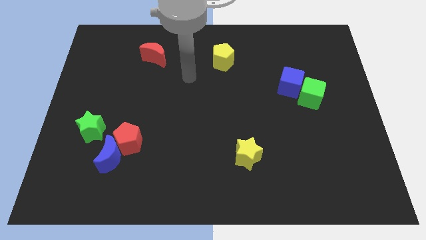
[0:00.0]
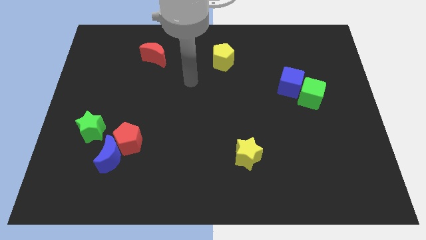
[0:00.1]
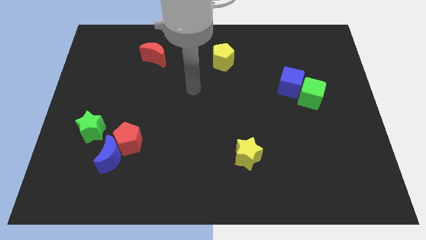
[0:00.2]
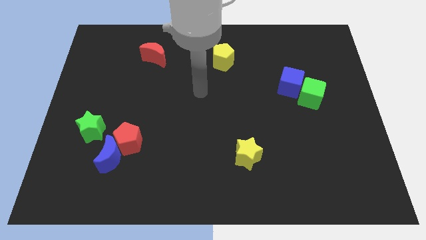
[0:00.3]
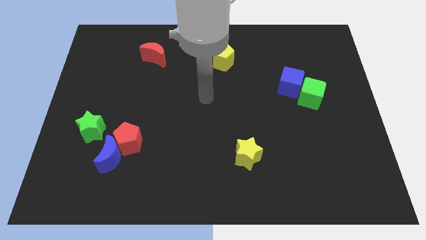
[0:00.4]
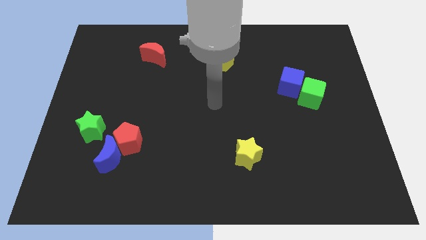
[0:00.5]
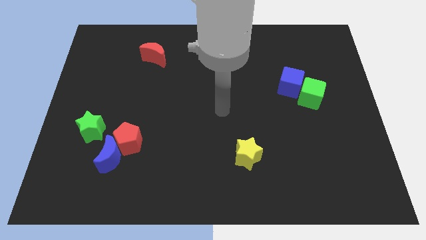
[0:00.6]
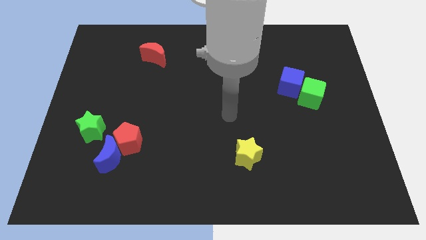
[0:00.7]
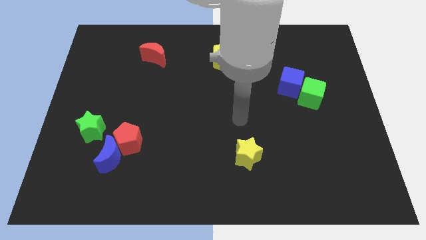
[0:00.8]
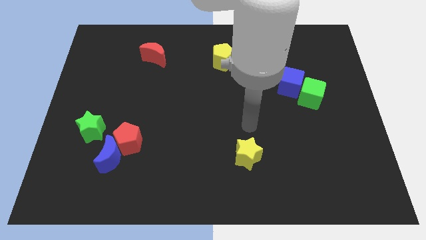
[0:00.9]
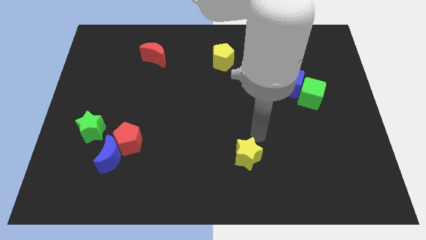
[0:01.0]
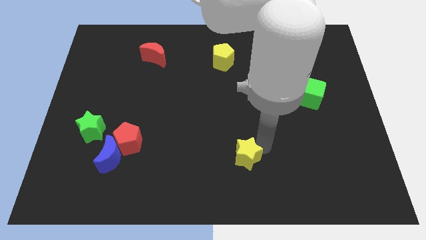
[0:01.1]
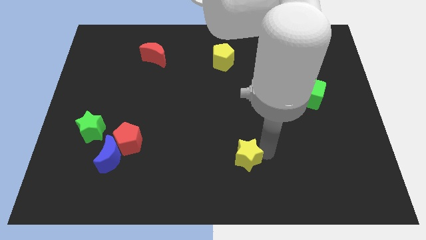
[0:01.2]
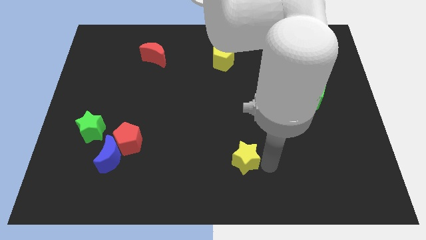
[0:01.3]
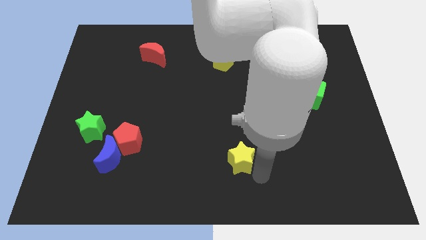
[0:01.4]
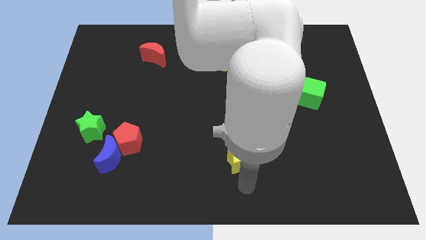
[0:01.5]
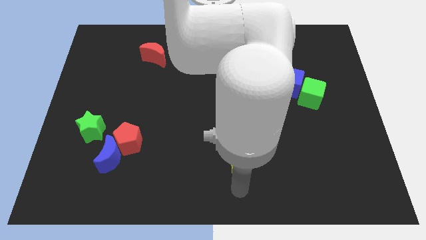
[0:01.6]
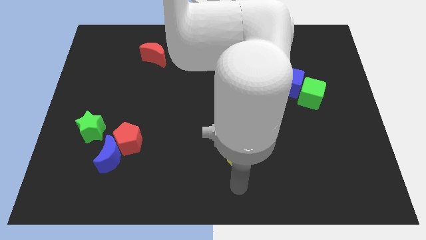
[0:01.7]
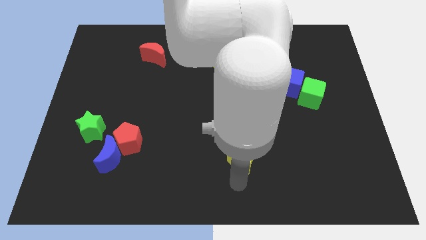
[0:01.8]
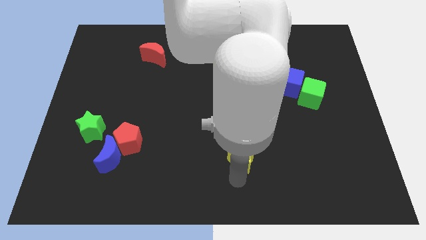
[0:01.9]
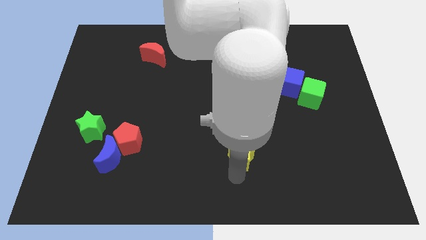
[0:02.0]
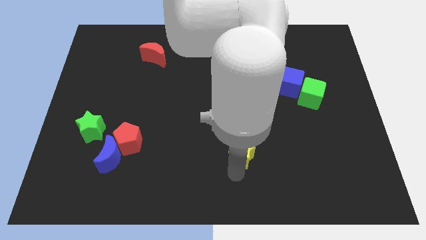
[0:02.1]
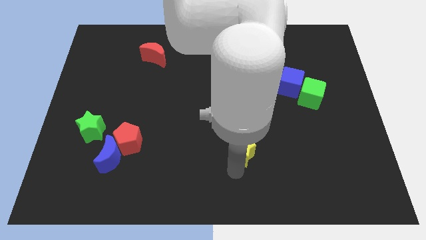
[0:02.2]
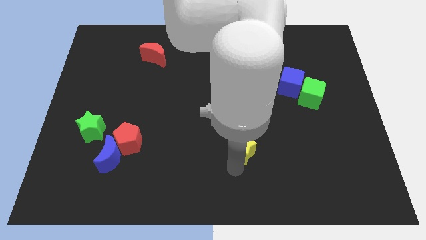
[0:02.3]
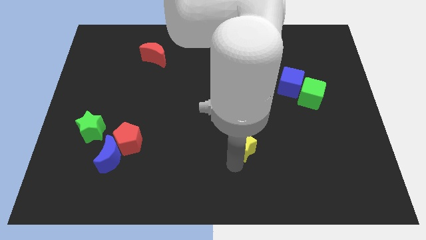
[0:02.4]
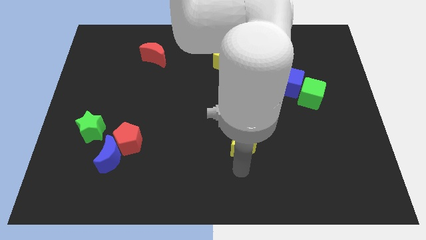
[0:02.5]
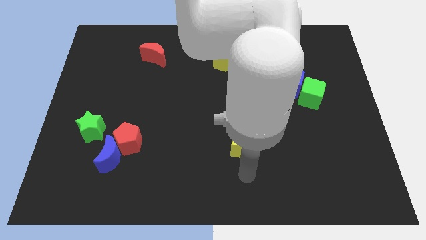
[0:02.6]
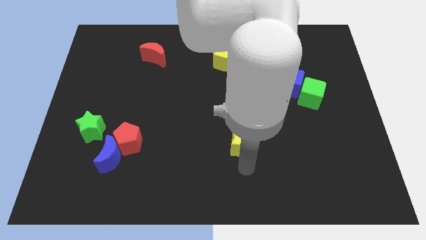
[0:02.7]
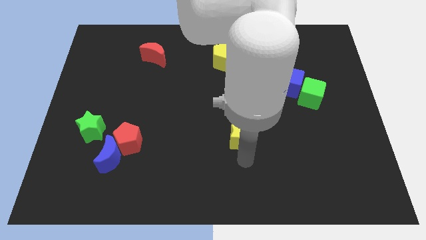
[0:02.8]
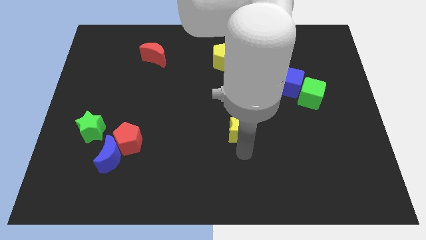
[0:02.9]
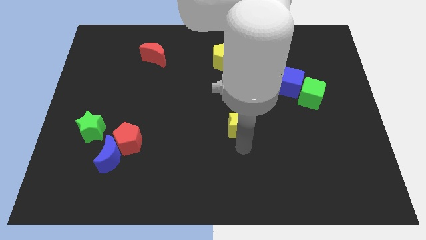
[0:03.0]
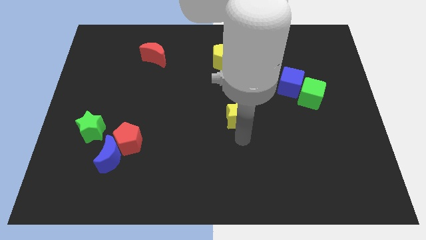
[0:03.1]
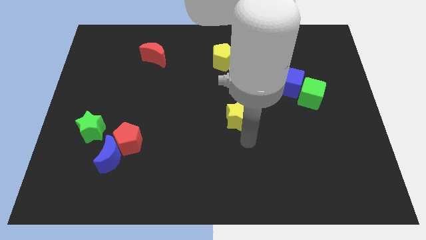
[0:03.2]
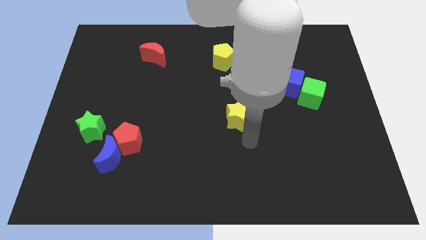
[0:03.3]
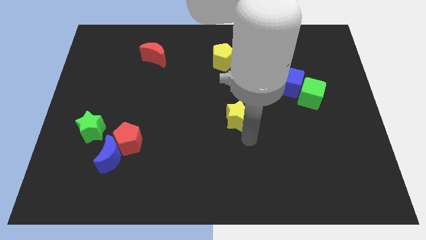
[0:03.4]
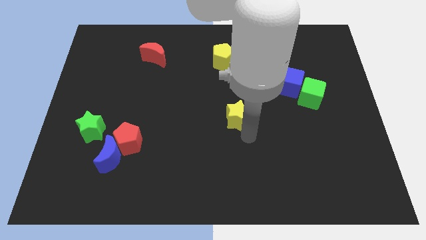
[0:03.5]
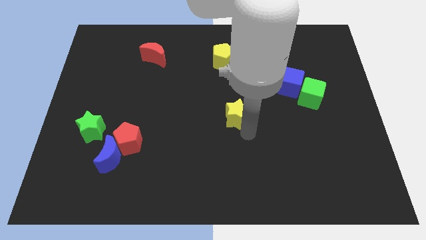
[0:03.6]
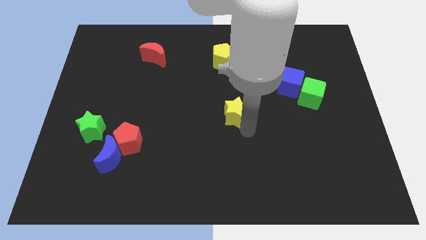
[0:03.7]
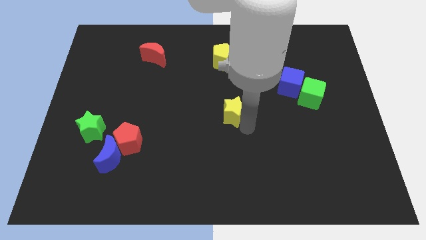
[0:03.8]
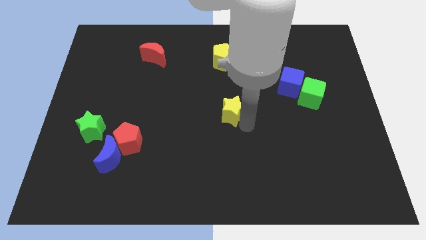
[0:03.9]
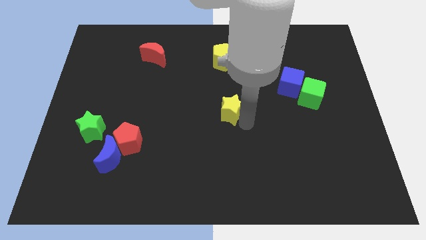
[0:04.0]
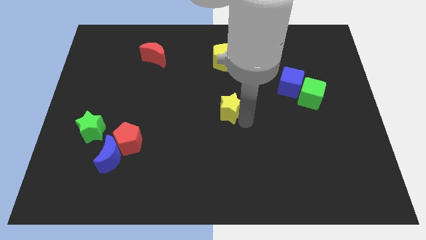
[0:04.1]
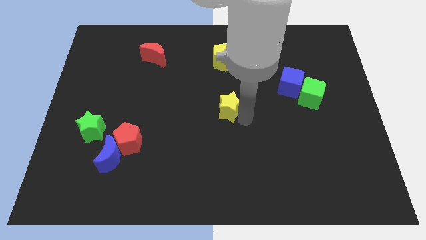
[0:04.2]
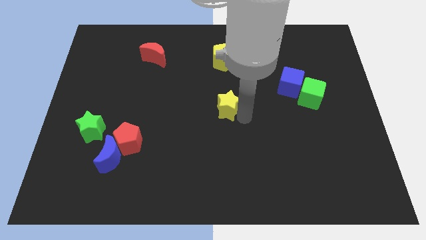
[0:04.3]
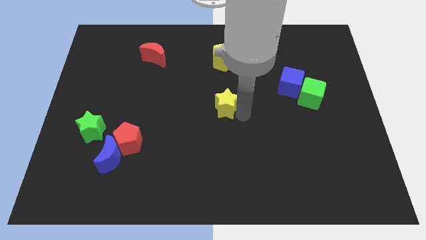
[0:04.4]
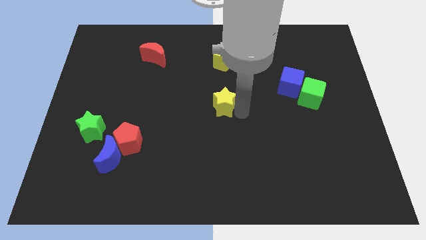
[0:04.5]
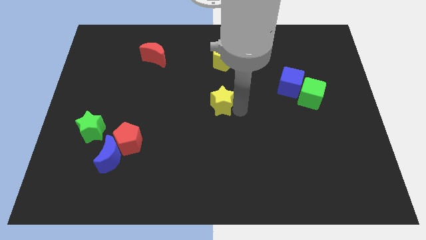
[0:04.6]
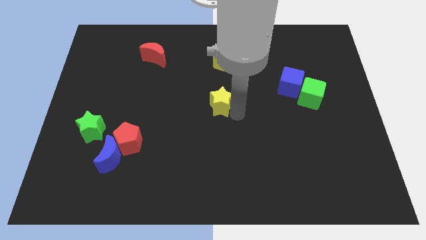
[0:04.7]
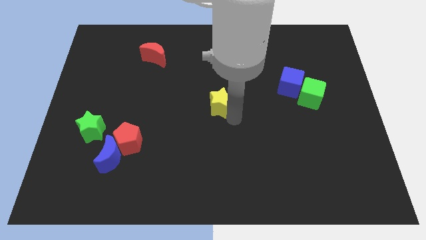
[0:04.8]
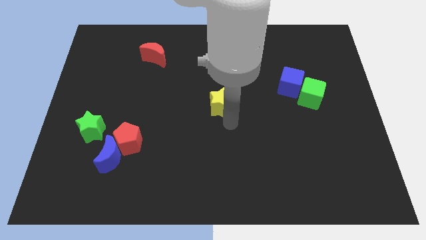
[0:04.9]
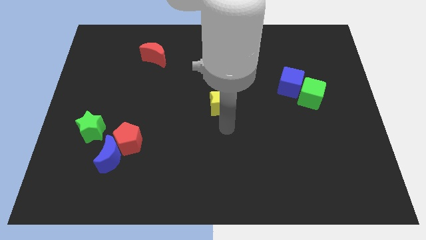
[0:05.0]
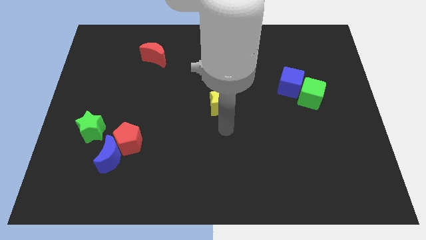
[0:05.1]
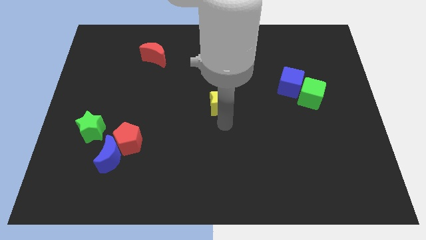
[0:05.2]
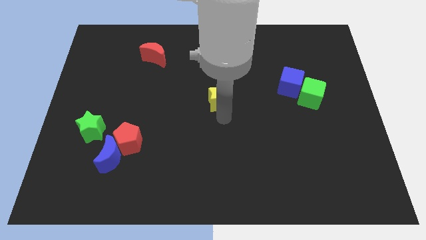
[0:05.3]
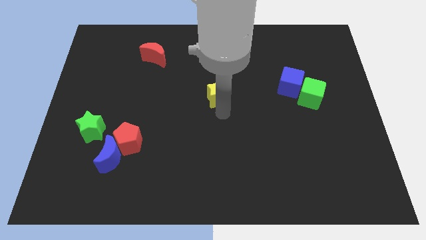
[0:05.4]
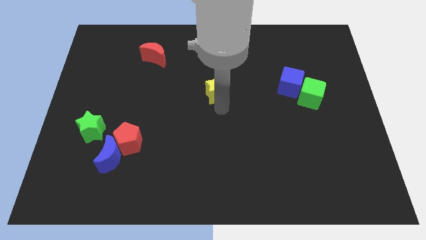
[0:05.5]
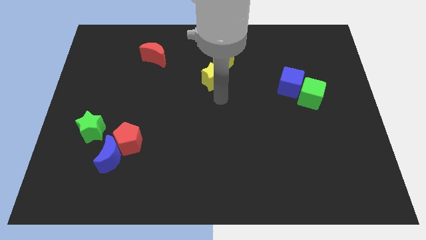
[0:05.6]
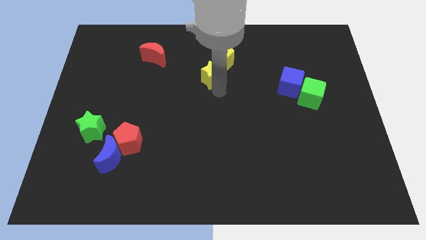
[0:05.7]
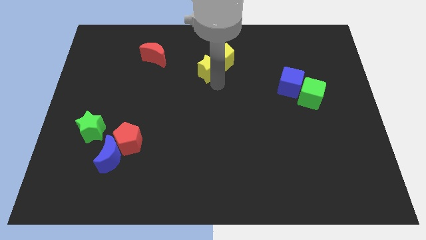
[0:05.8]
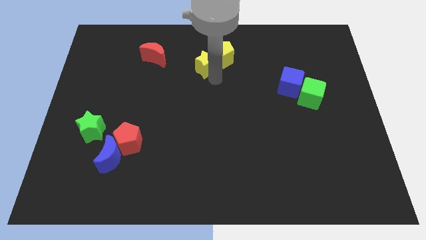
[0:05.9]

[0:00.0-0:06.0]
move the yellow star right of the red moon

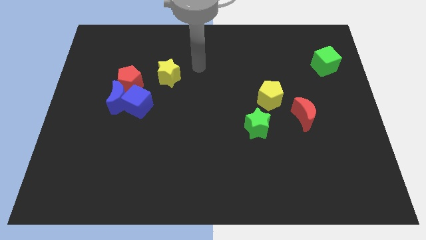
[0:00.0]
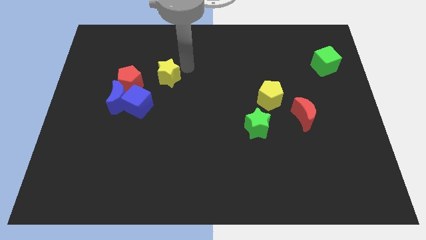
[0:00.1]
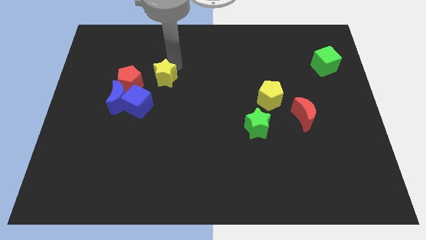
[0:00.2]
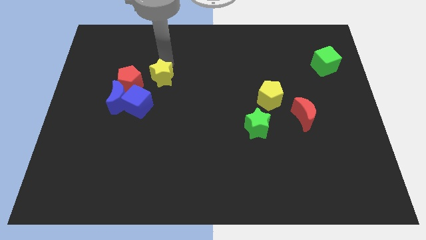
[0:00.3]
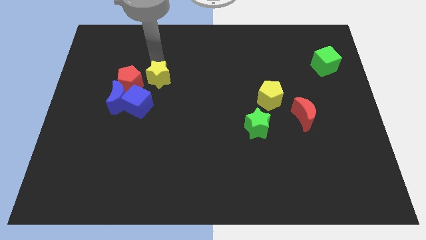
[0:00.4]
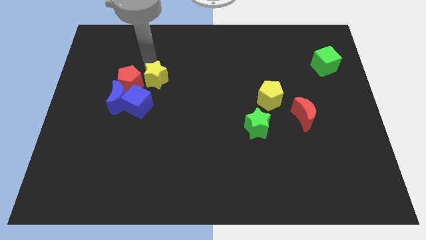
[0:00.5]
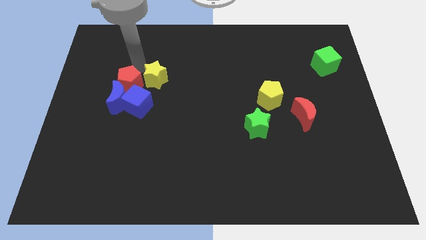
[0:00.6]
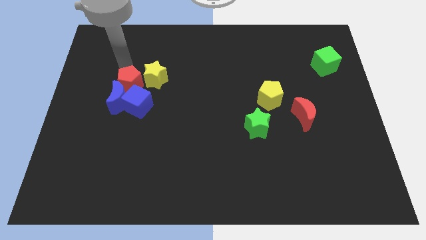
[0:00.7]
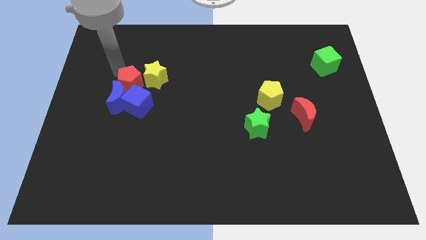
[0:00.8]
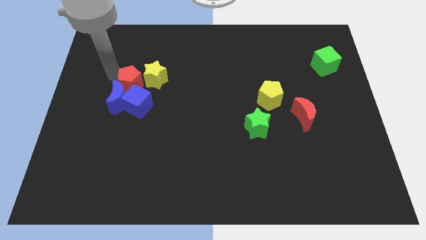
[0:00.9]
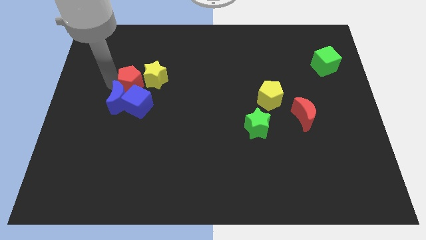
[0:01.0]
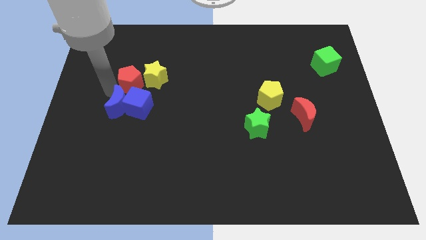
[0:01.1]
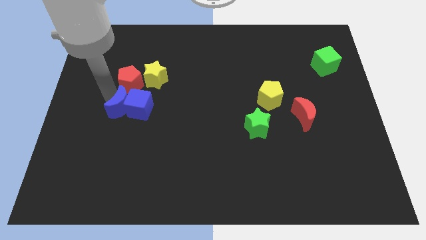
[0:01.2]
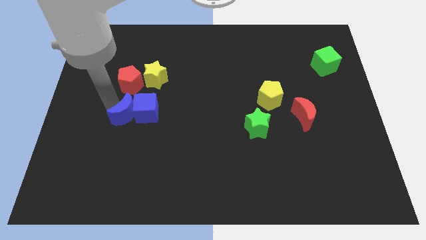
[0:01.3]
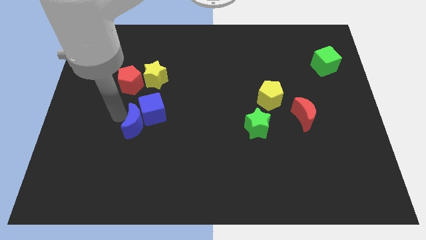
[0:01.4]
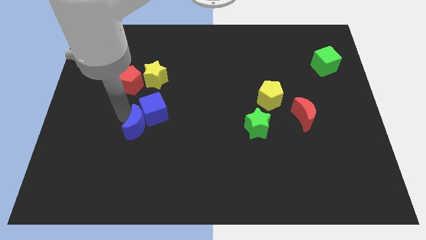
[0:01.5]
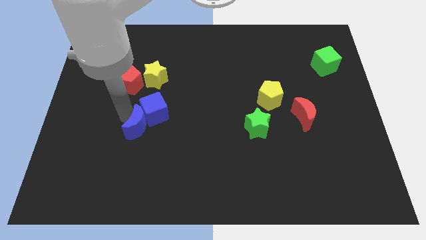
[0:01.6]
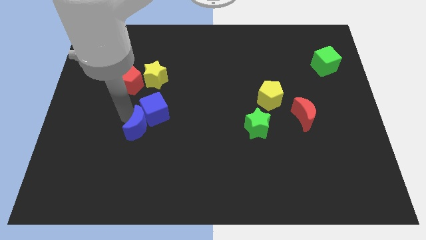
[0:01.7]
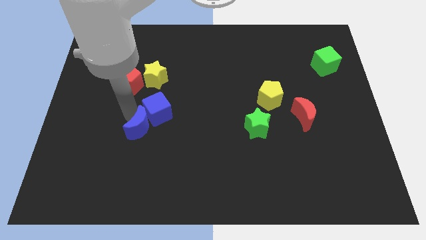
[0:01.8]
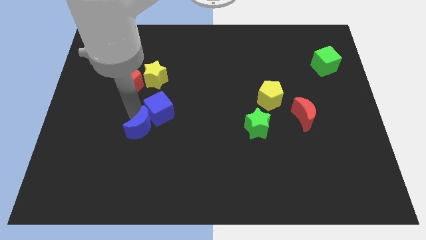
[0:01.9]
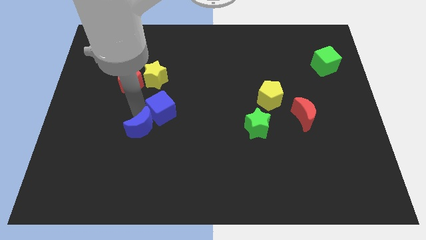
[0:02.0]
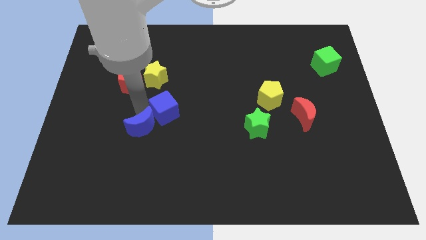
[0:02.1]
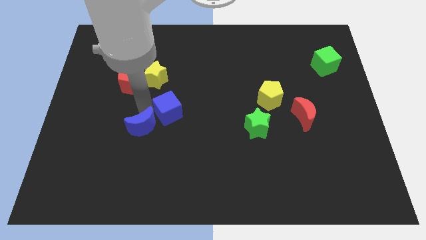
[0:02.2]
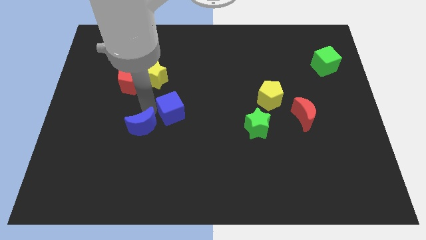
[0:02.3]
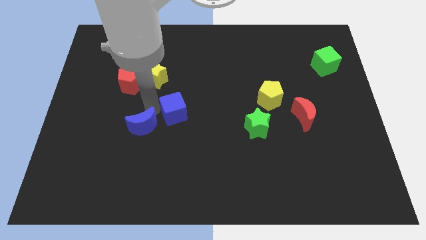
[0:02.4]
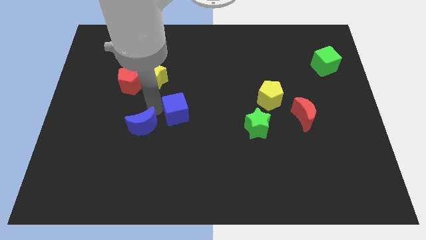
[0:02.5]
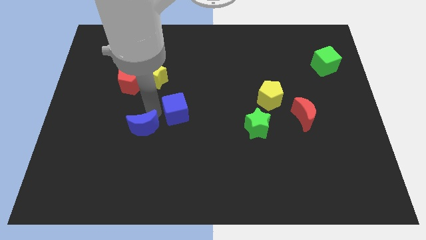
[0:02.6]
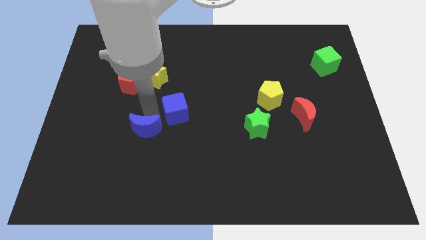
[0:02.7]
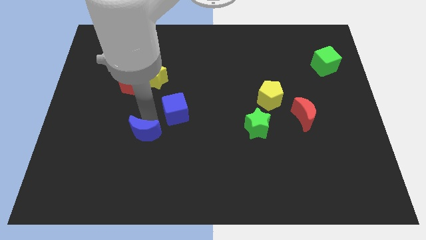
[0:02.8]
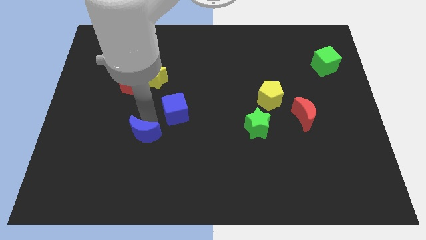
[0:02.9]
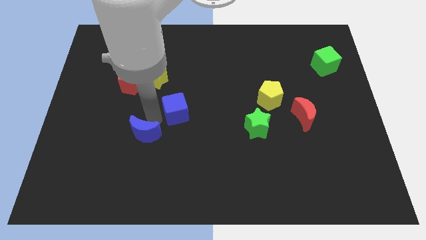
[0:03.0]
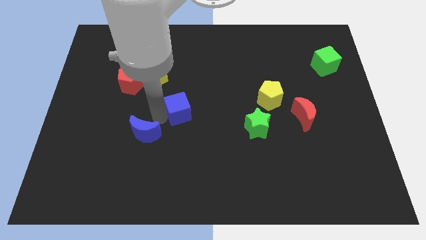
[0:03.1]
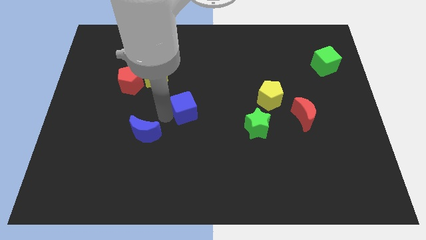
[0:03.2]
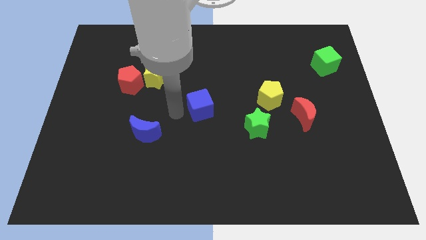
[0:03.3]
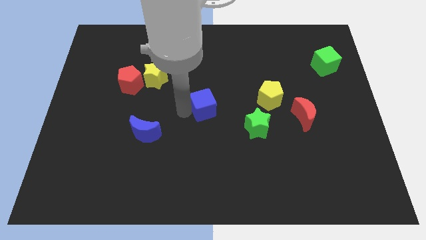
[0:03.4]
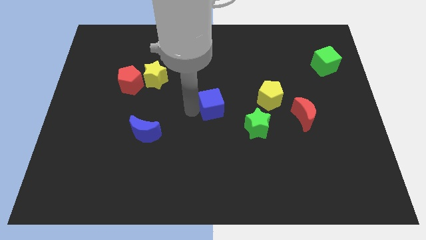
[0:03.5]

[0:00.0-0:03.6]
slide the blue cube to the left of the yellow pentagon
